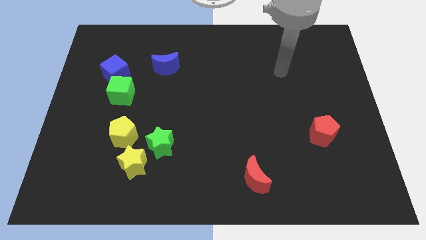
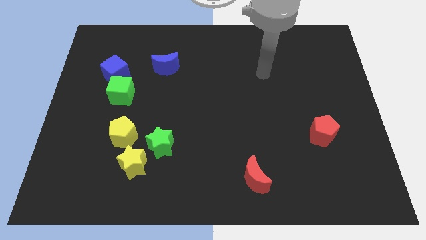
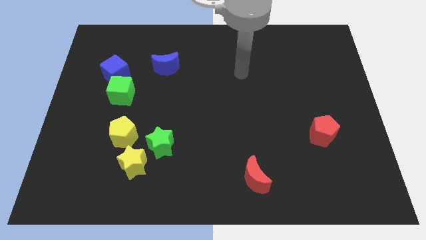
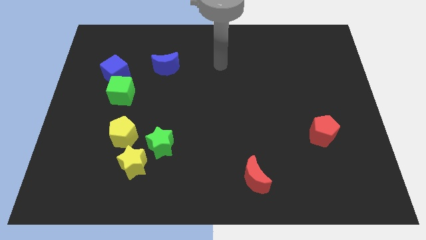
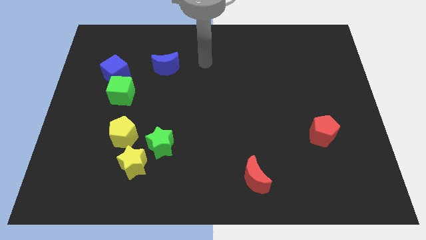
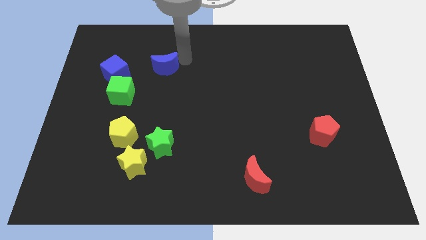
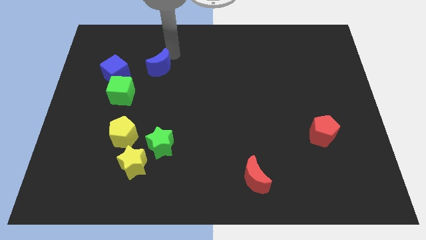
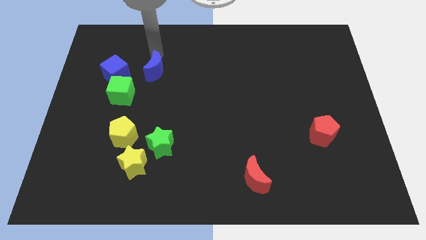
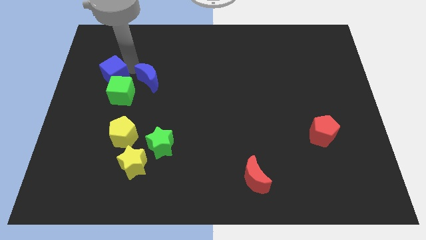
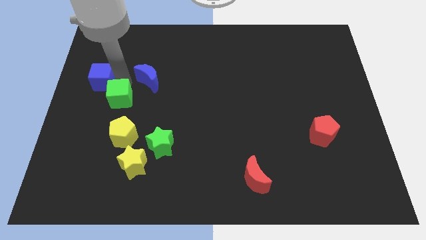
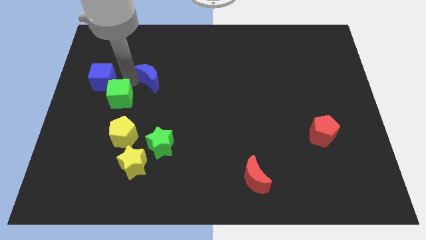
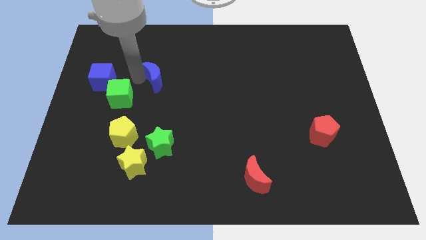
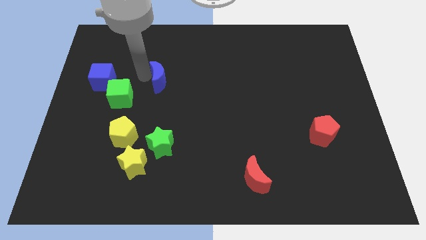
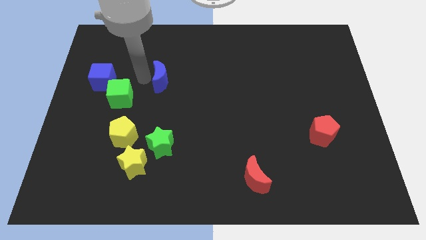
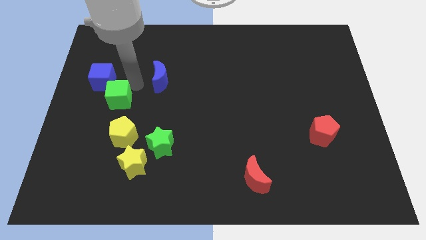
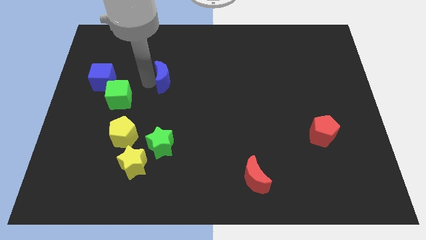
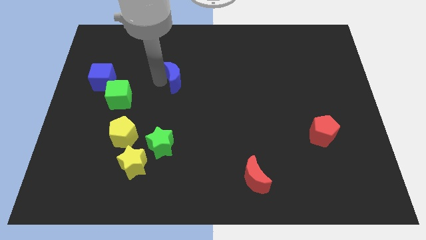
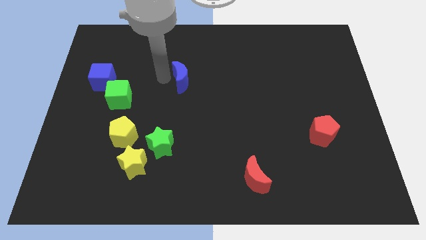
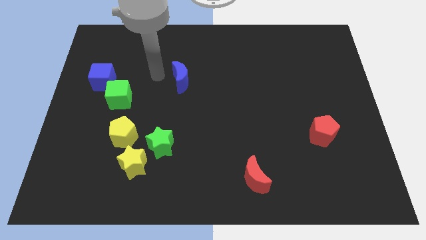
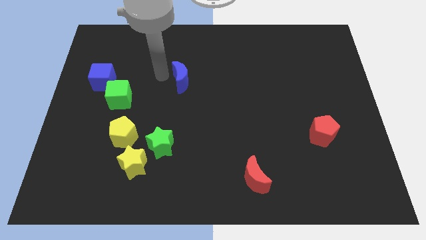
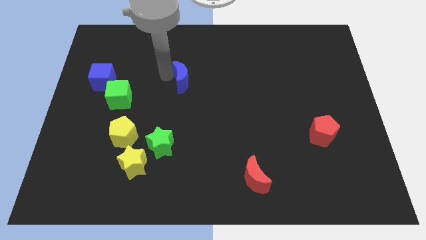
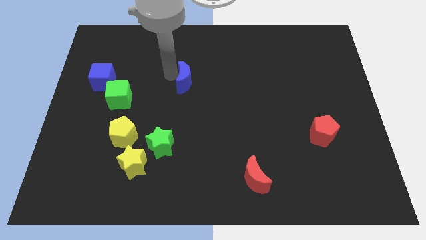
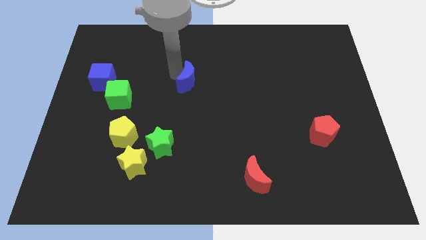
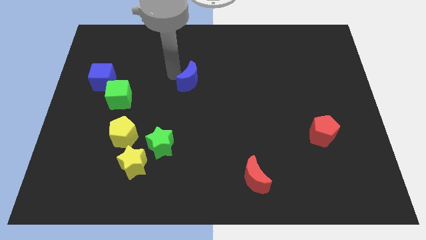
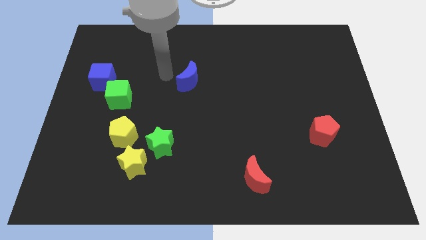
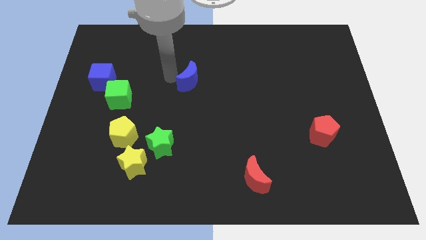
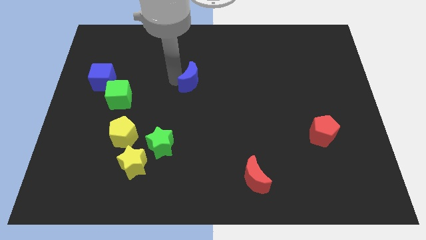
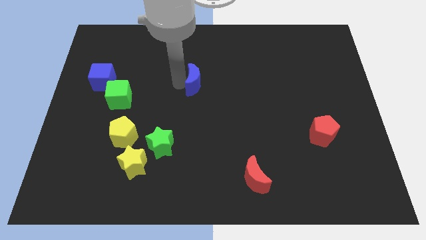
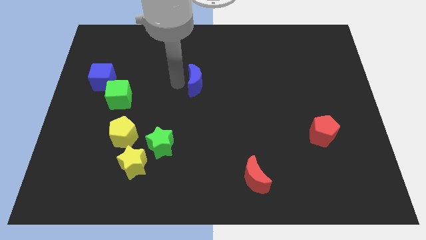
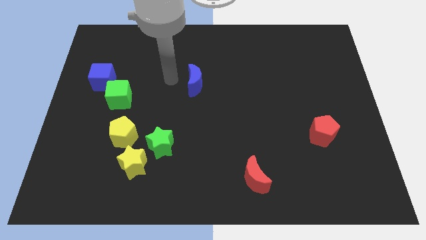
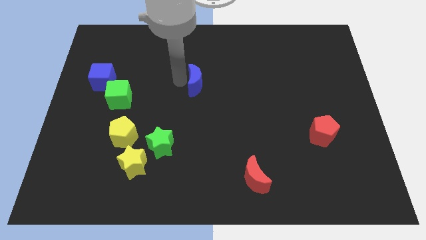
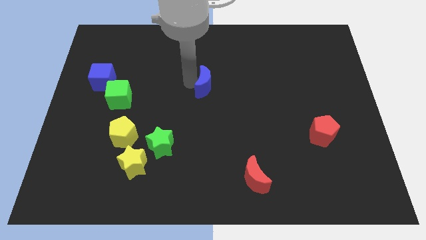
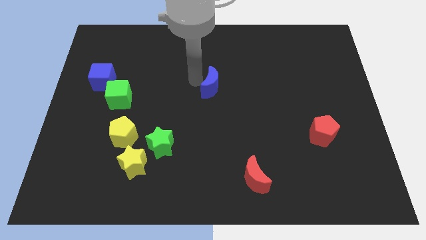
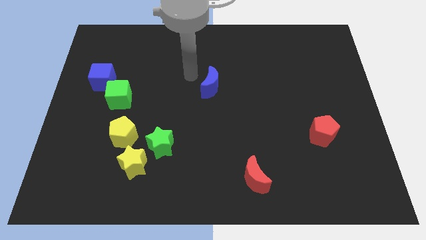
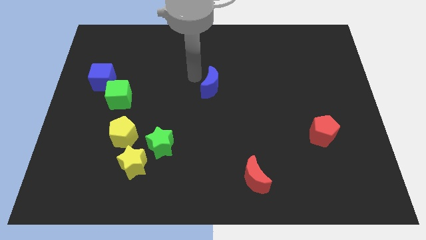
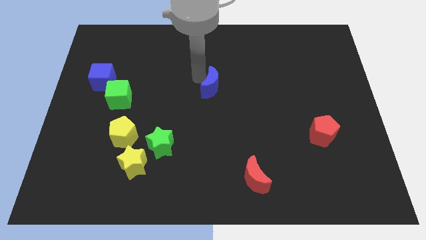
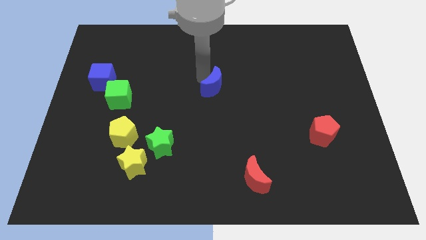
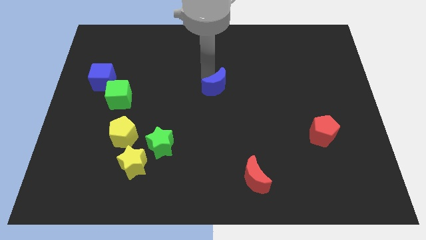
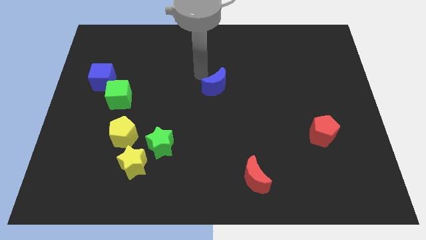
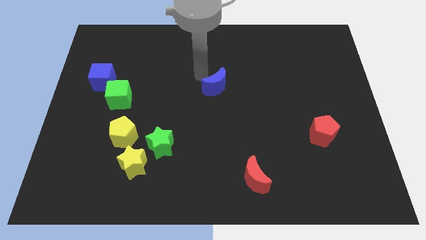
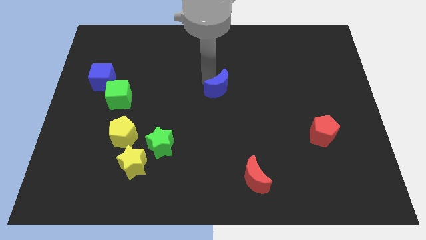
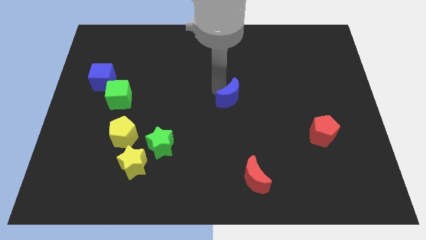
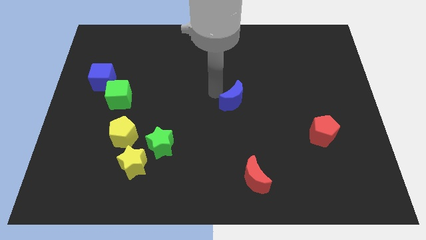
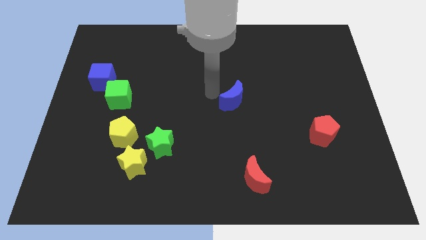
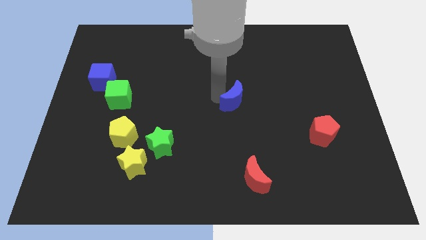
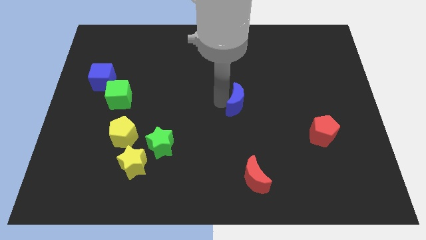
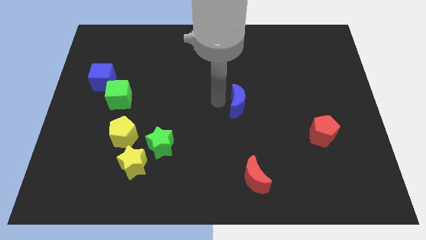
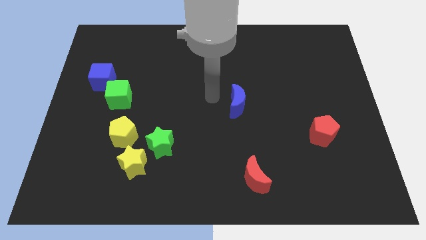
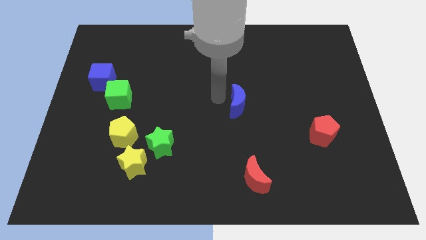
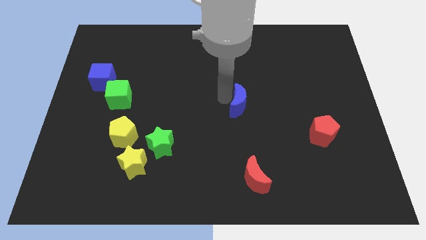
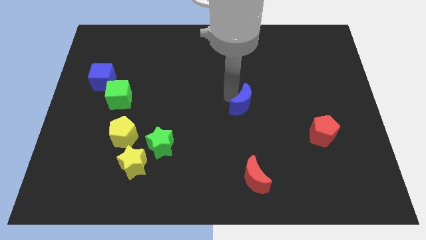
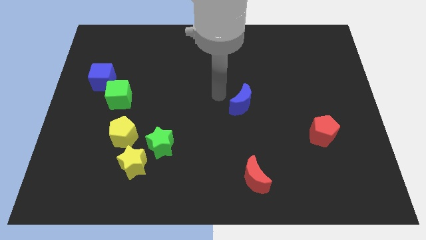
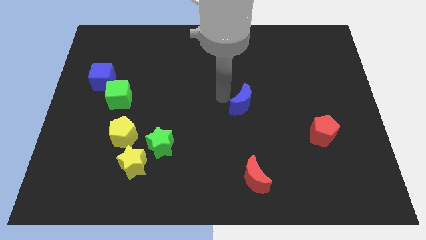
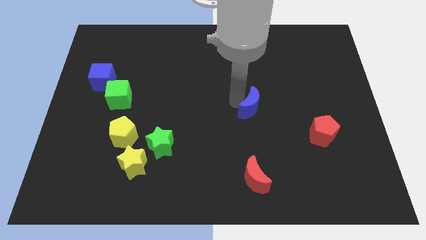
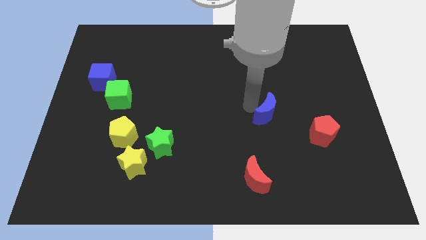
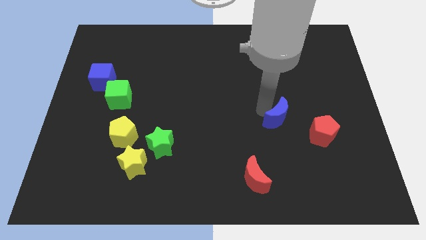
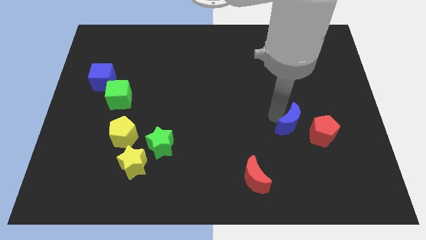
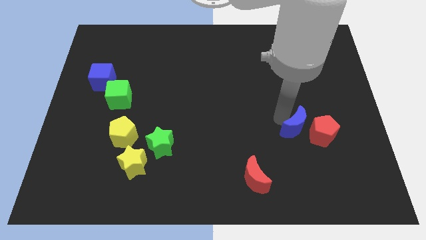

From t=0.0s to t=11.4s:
slide the blue moon to the red pentagon

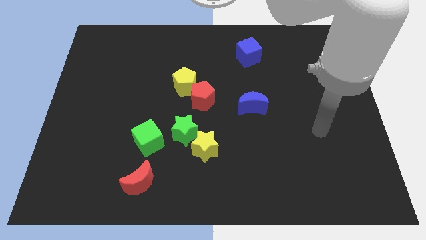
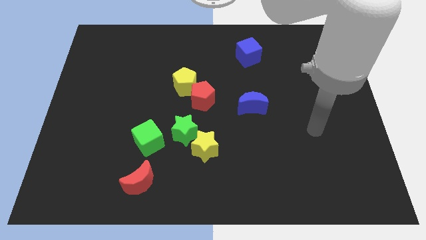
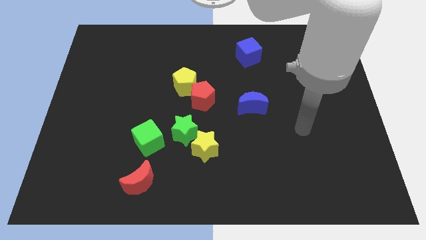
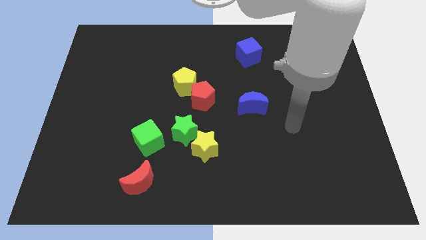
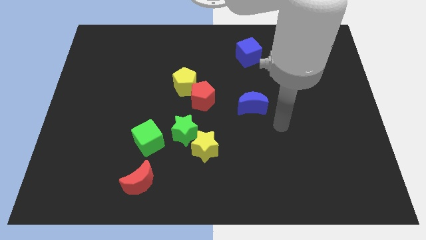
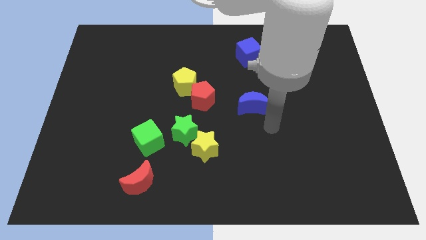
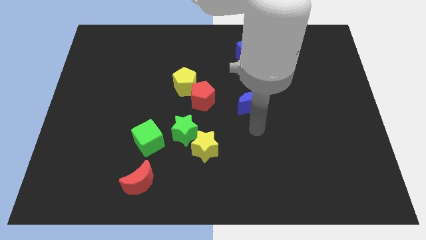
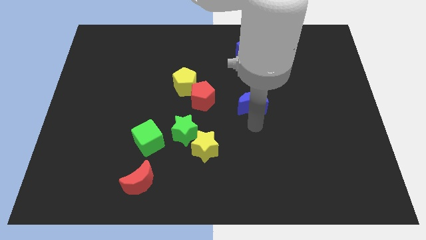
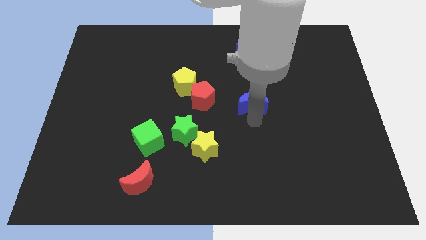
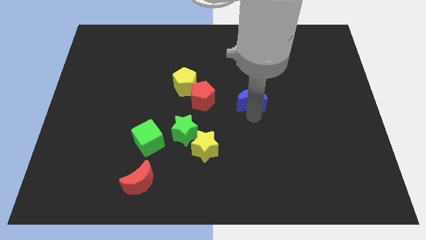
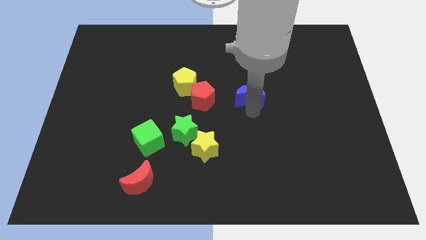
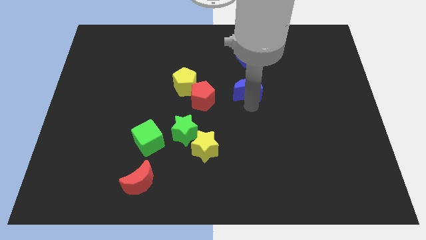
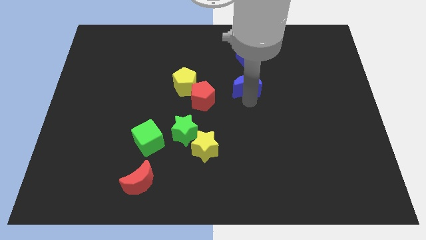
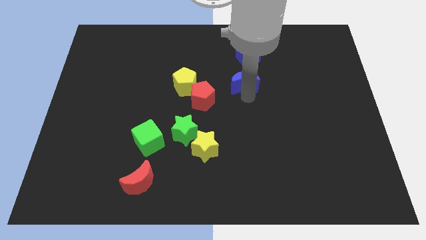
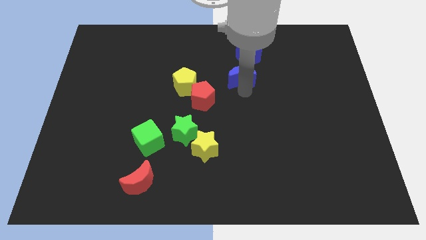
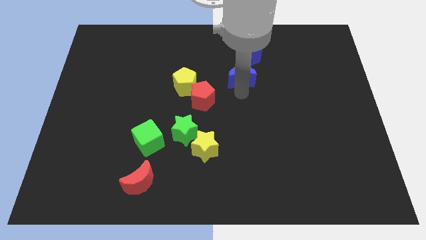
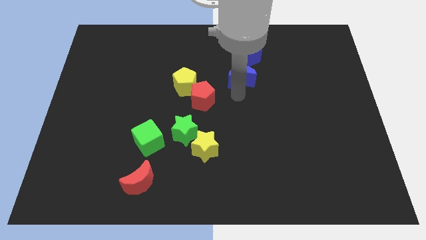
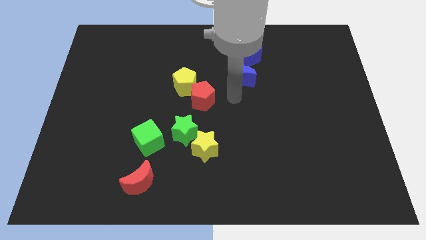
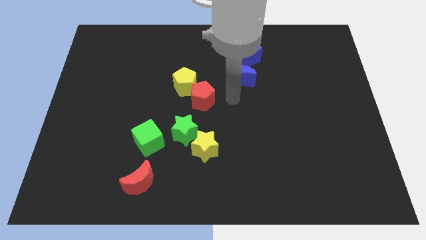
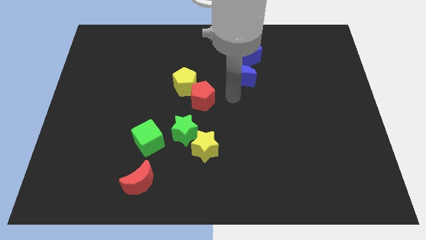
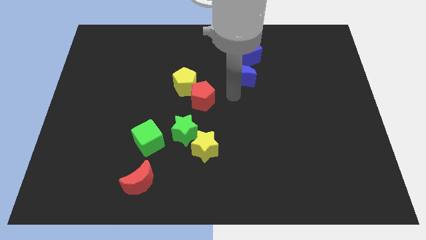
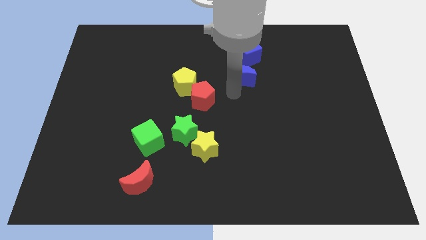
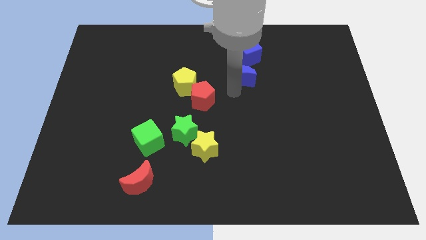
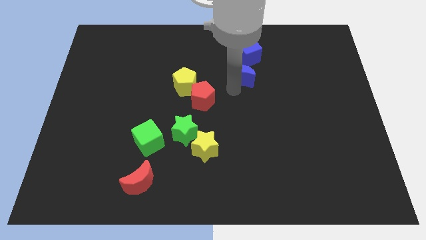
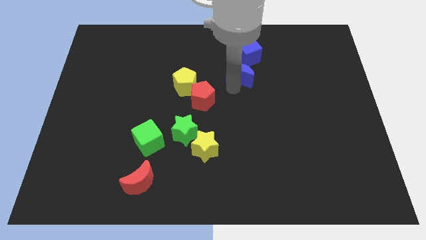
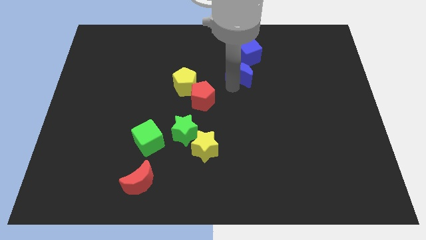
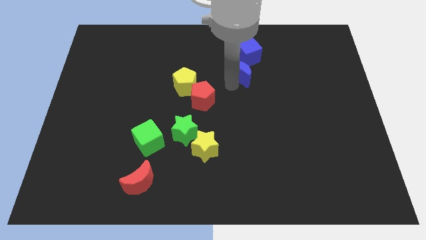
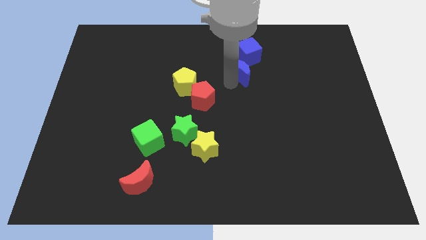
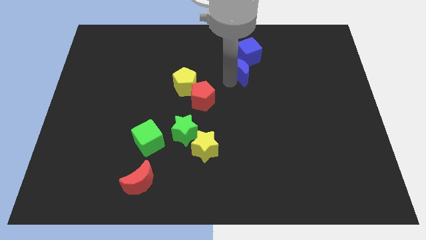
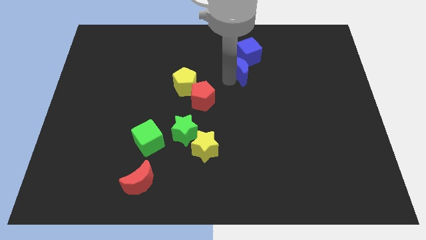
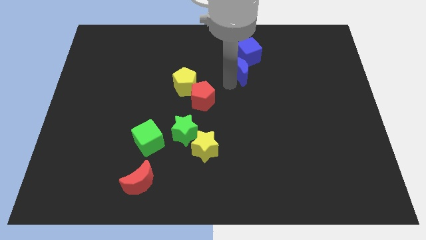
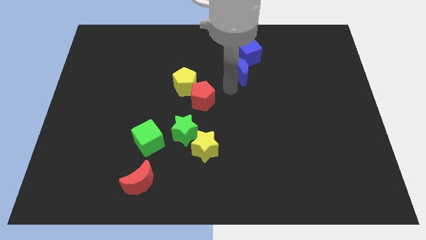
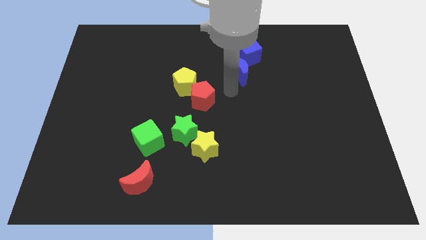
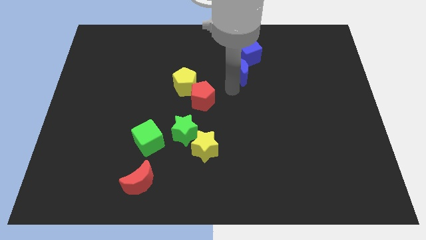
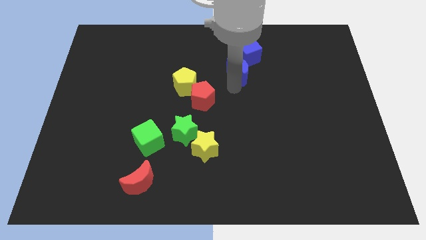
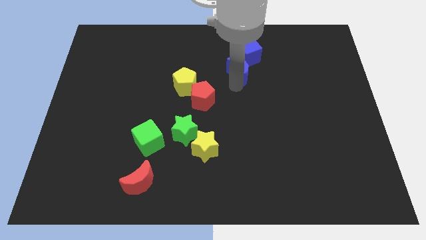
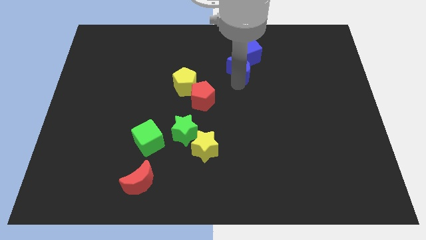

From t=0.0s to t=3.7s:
put the blue moon to the blue cube
